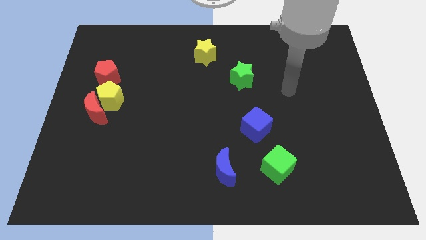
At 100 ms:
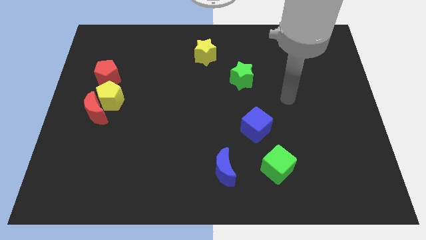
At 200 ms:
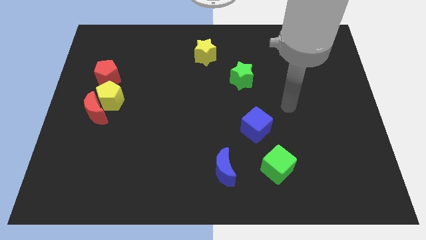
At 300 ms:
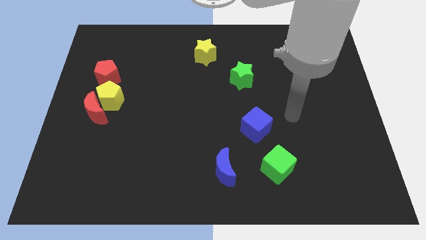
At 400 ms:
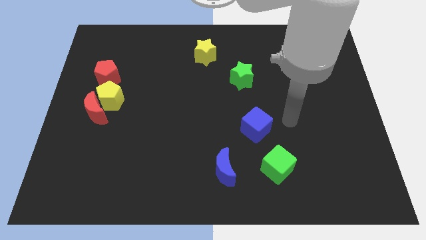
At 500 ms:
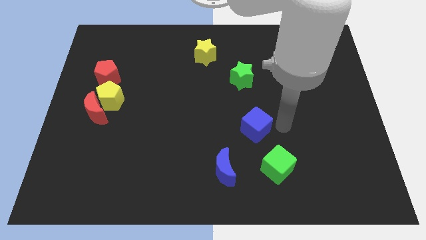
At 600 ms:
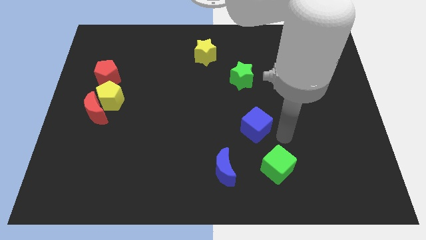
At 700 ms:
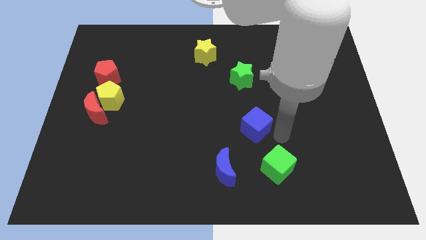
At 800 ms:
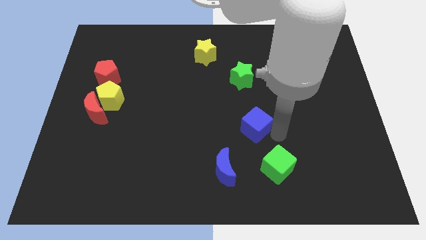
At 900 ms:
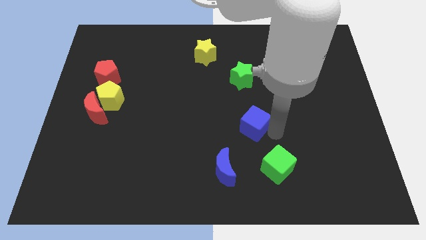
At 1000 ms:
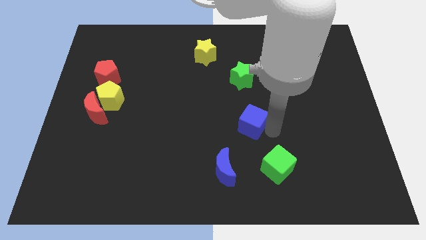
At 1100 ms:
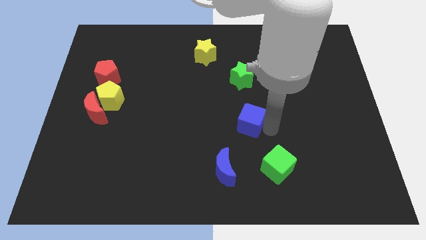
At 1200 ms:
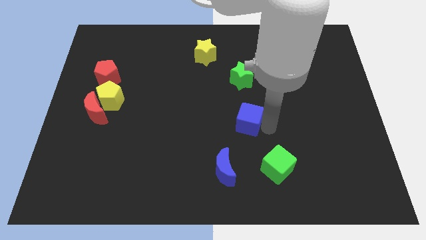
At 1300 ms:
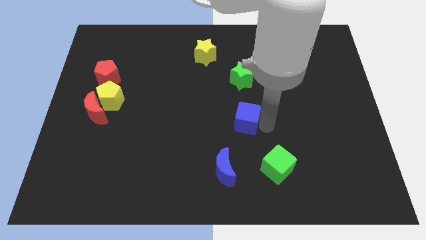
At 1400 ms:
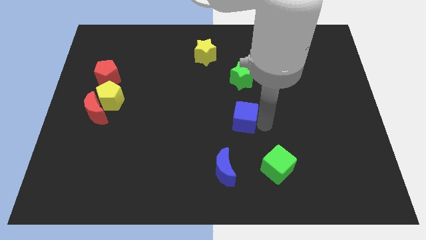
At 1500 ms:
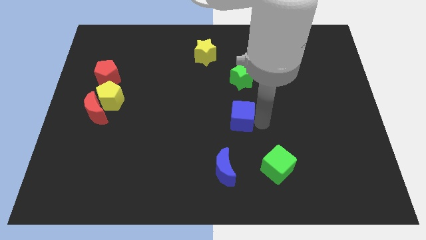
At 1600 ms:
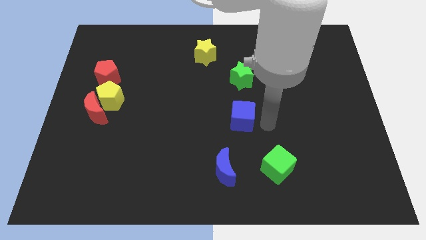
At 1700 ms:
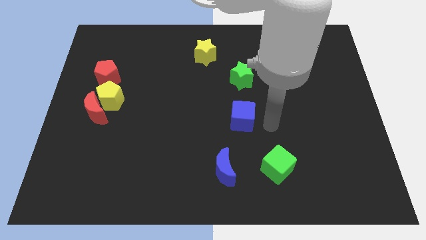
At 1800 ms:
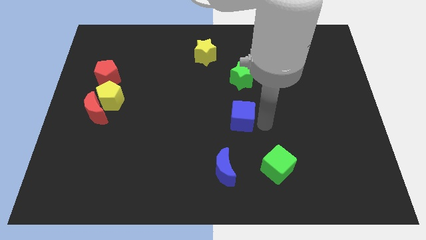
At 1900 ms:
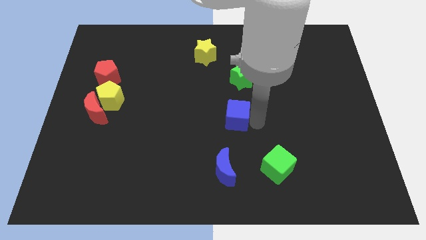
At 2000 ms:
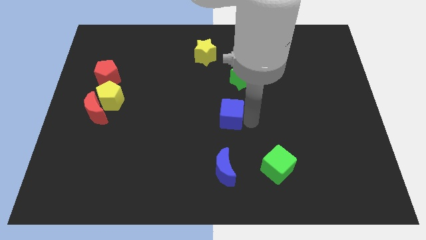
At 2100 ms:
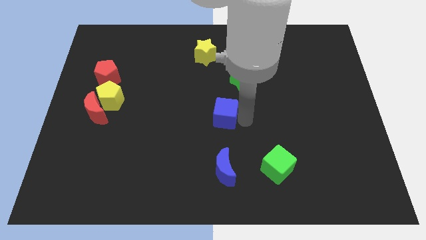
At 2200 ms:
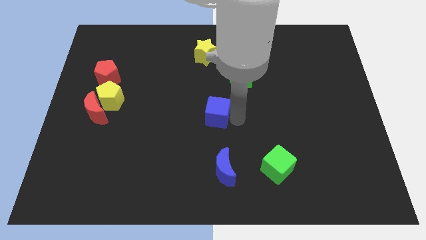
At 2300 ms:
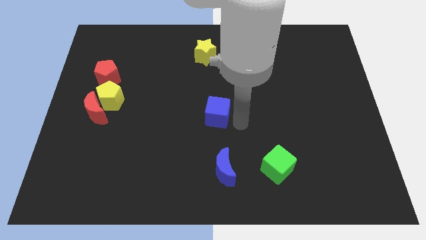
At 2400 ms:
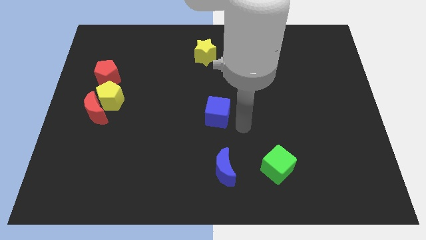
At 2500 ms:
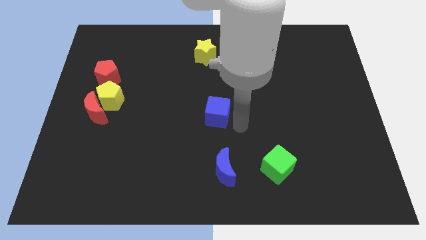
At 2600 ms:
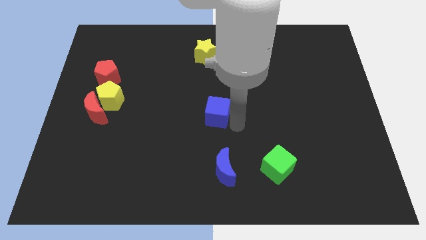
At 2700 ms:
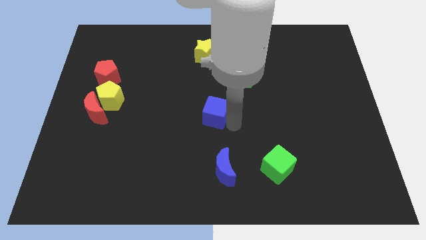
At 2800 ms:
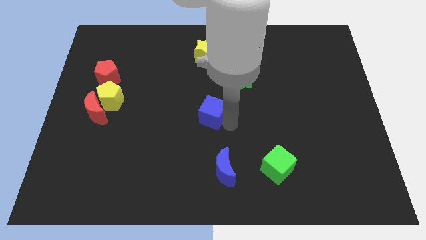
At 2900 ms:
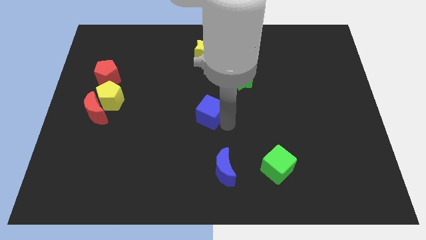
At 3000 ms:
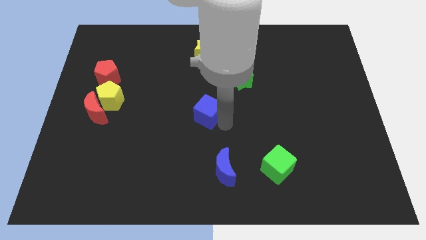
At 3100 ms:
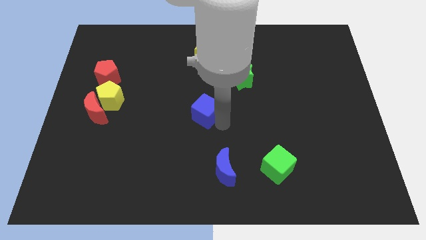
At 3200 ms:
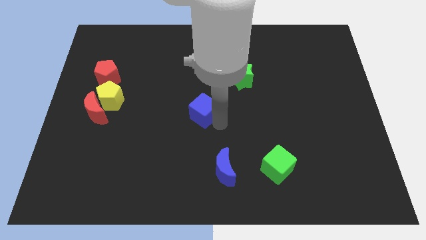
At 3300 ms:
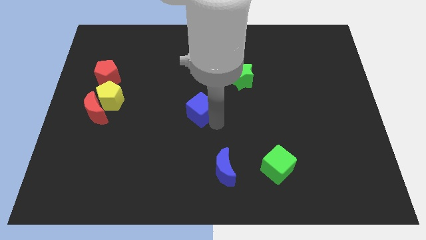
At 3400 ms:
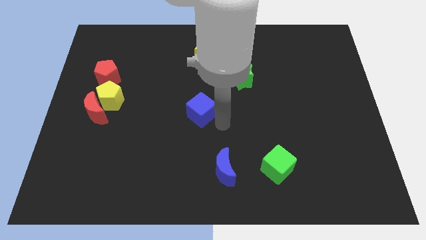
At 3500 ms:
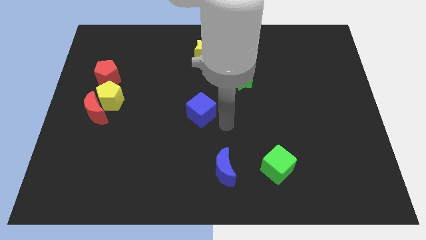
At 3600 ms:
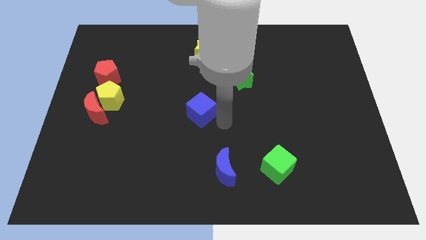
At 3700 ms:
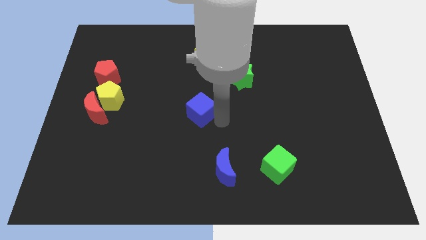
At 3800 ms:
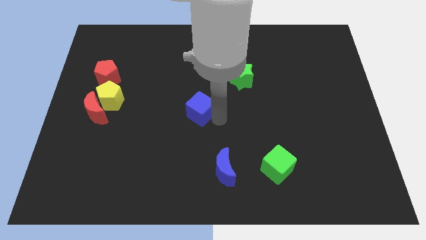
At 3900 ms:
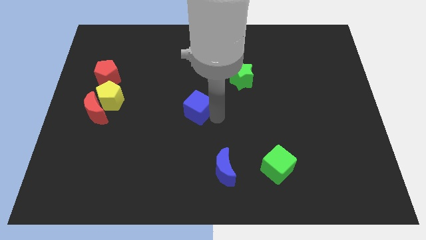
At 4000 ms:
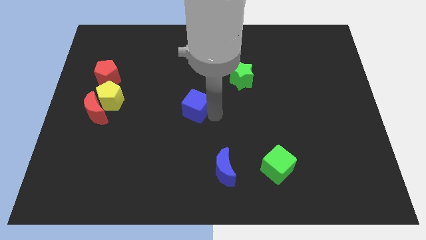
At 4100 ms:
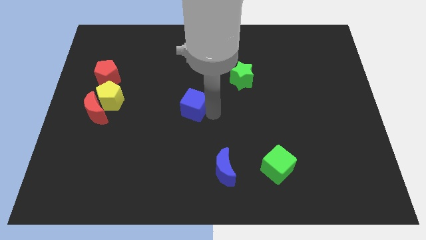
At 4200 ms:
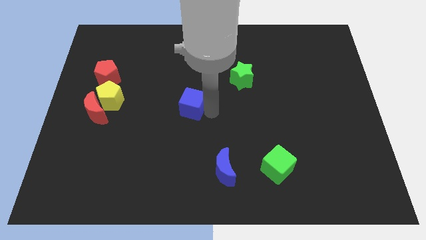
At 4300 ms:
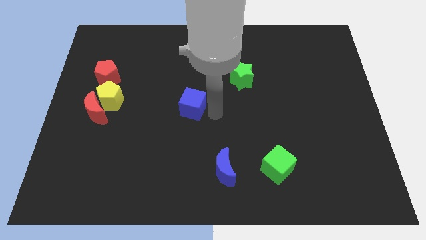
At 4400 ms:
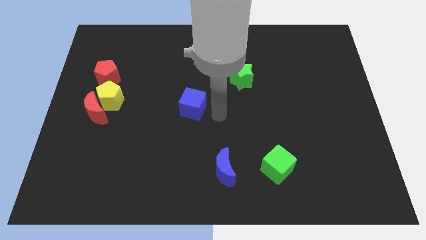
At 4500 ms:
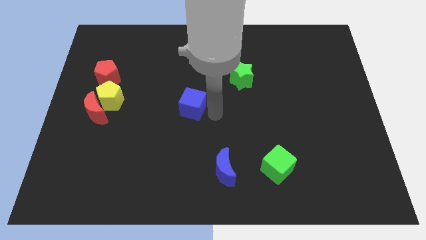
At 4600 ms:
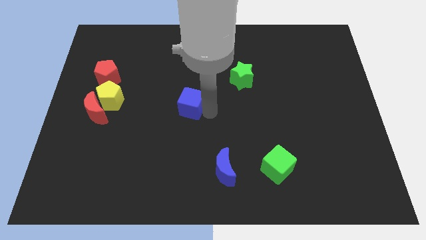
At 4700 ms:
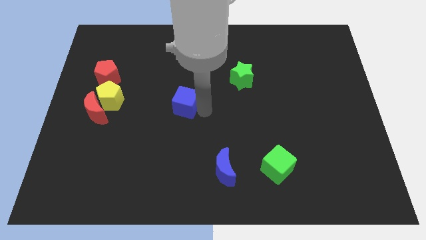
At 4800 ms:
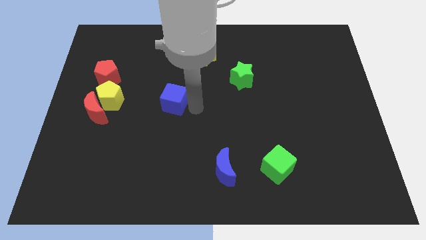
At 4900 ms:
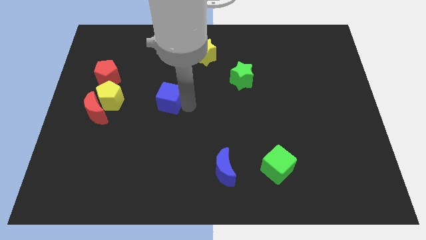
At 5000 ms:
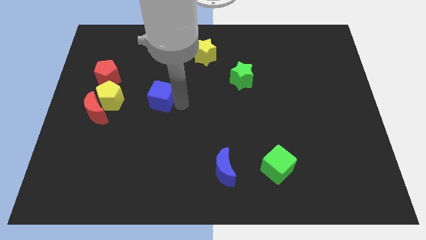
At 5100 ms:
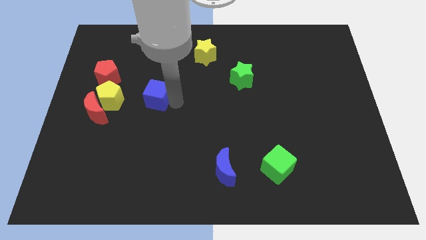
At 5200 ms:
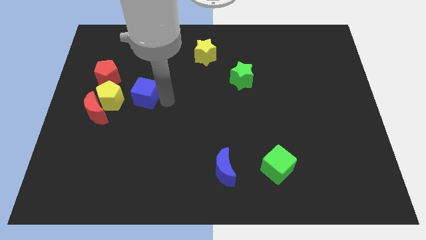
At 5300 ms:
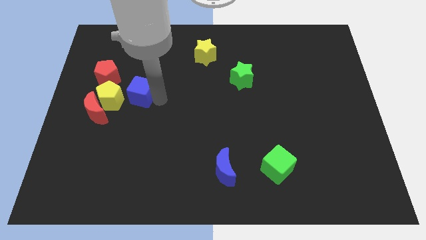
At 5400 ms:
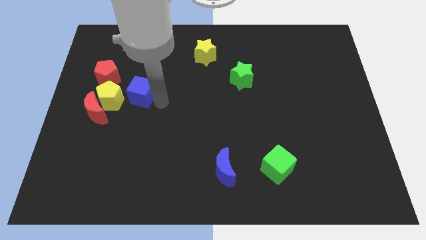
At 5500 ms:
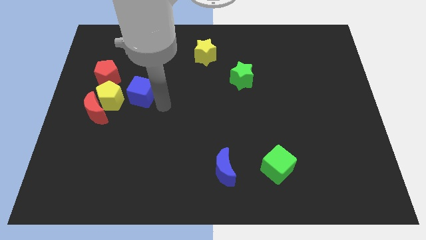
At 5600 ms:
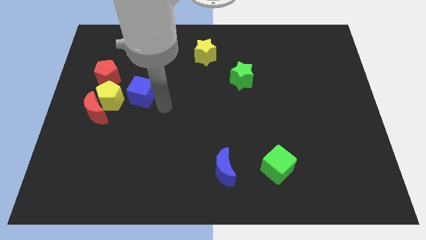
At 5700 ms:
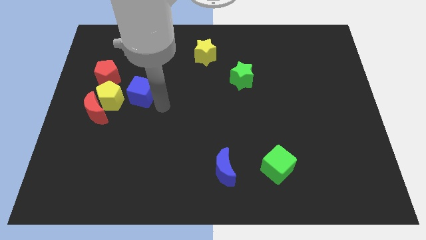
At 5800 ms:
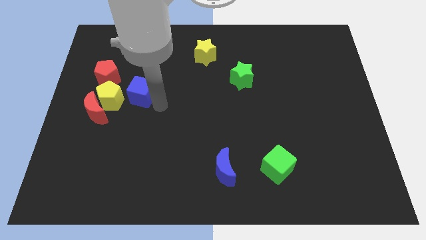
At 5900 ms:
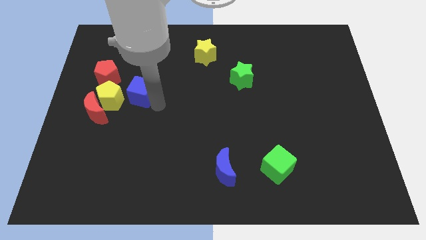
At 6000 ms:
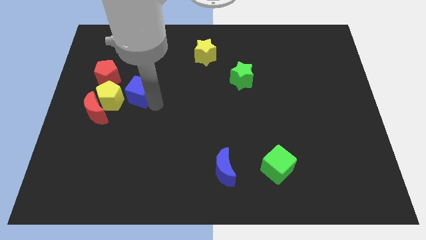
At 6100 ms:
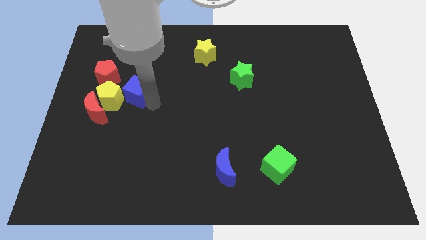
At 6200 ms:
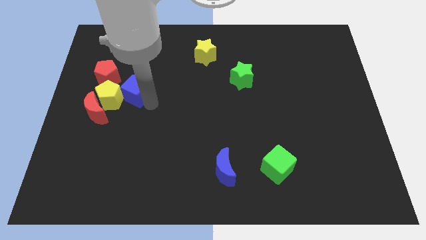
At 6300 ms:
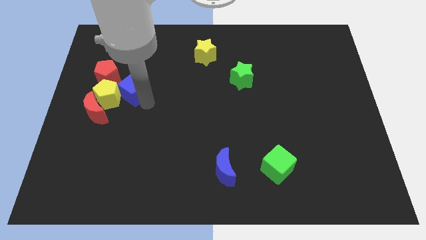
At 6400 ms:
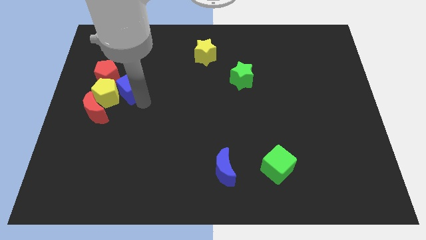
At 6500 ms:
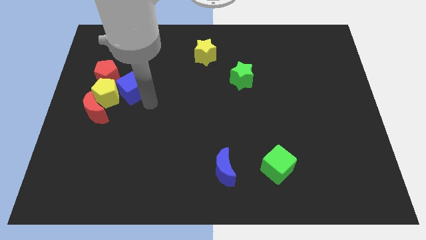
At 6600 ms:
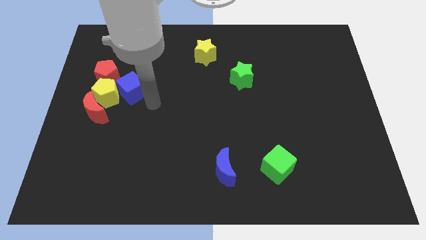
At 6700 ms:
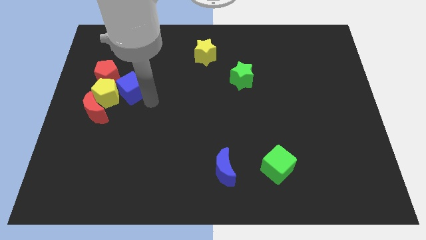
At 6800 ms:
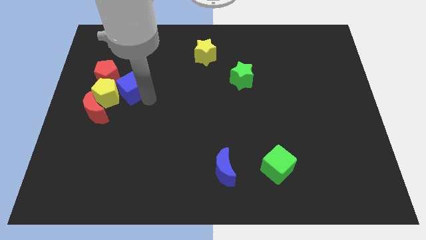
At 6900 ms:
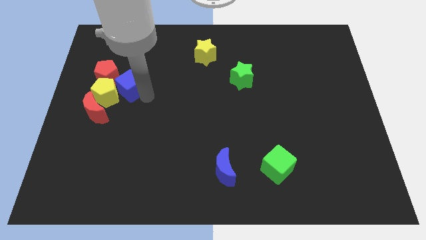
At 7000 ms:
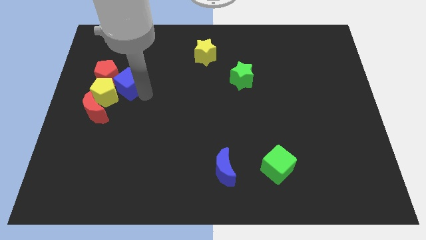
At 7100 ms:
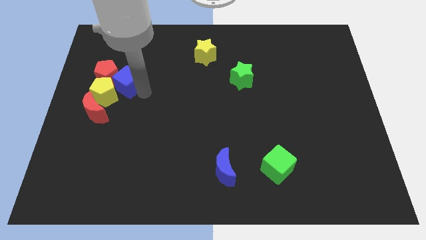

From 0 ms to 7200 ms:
slide the blue cube towards the red pentagon
